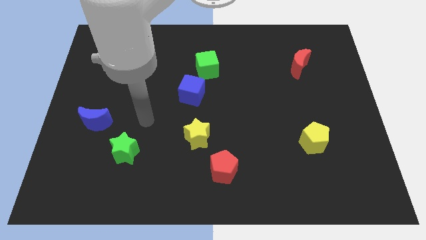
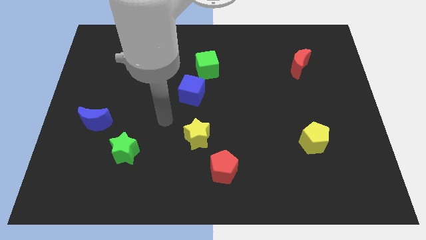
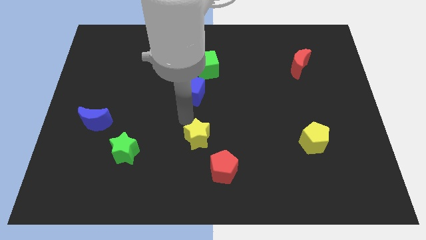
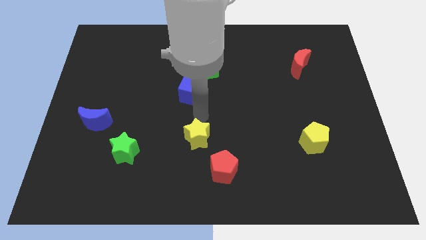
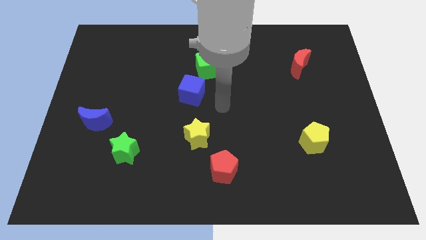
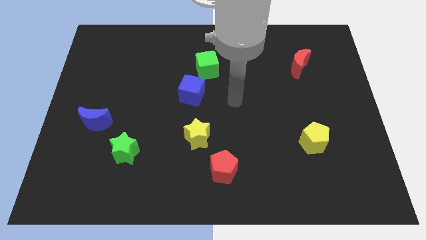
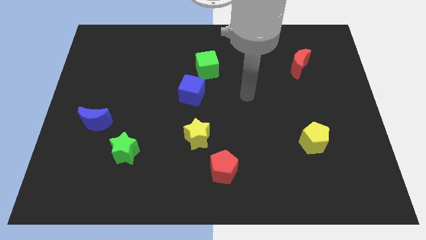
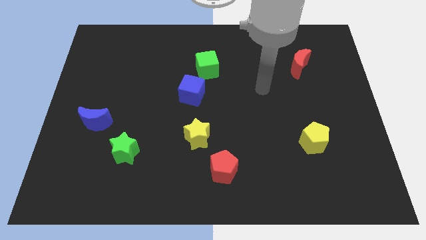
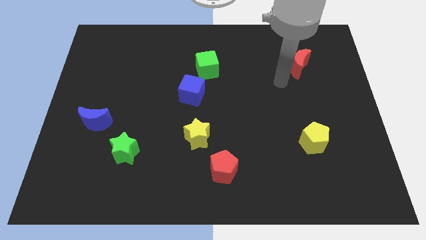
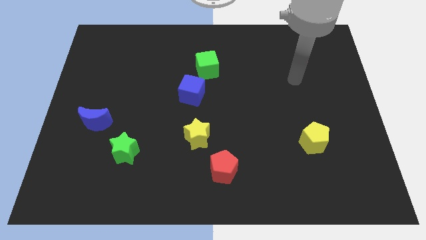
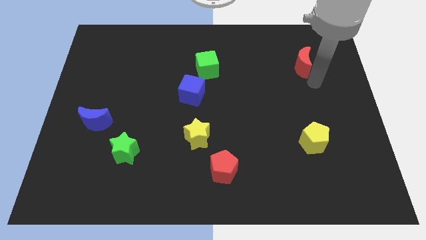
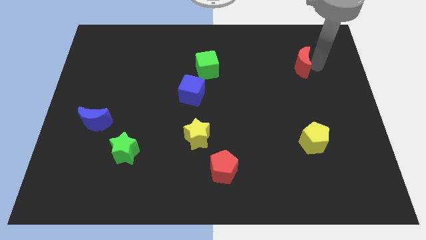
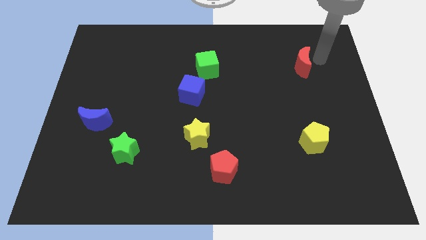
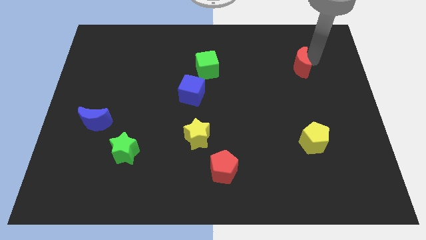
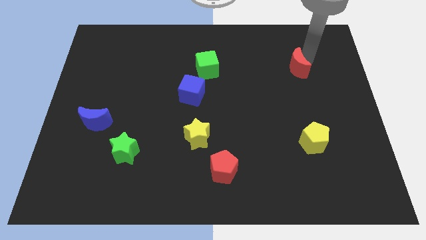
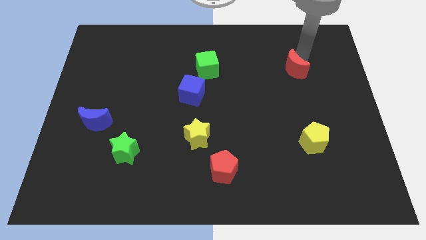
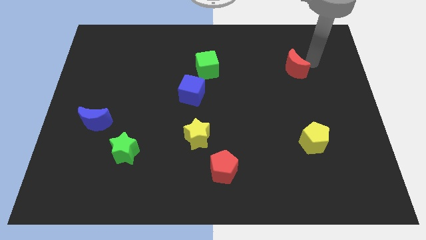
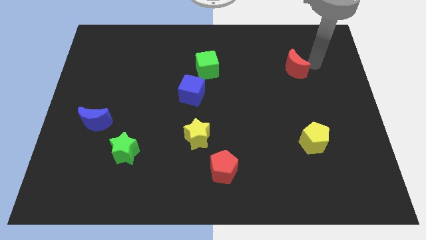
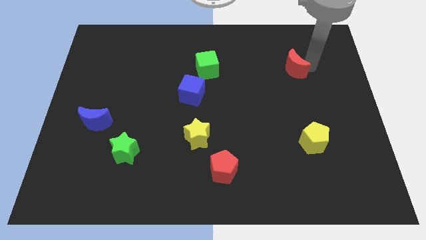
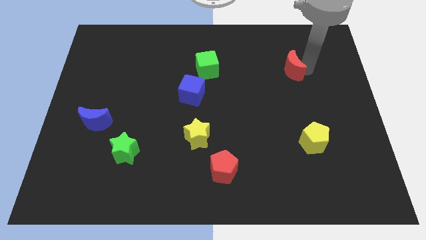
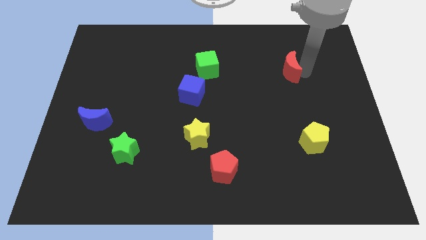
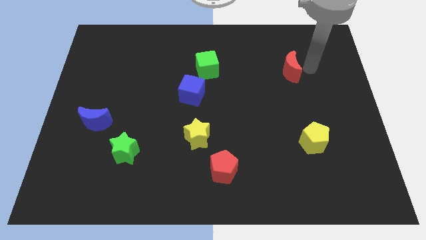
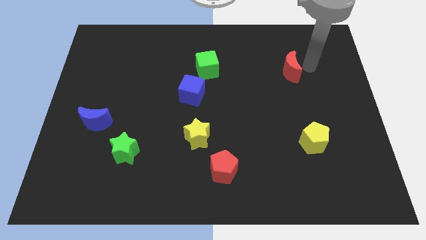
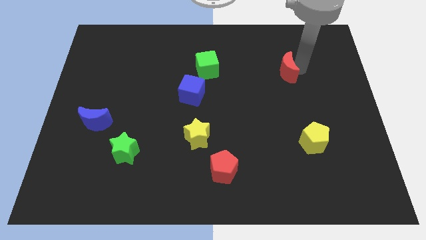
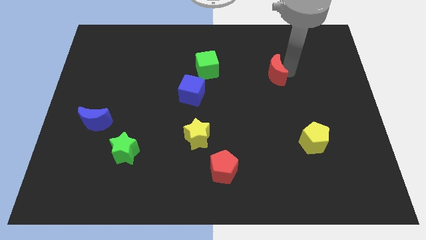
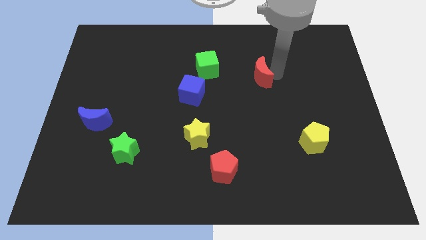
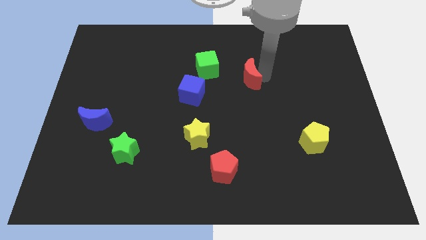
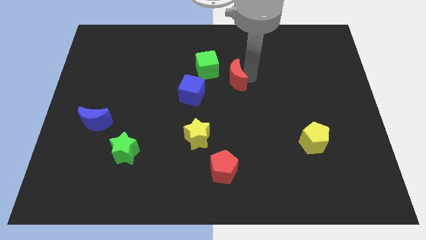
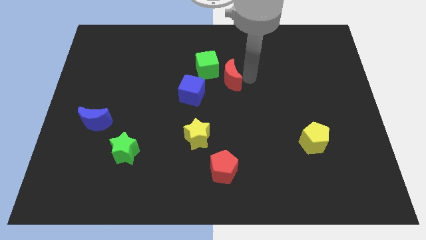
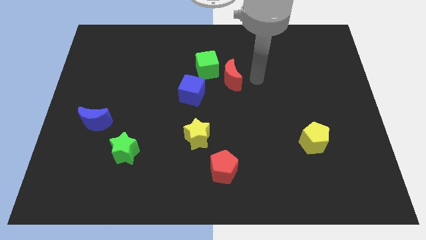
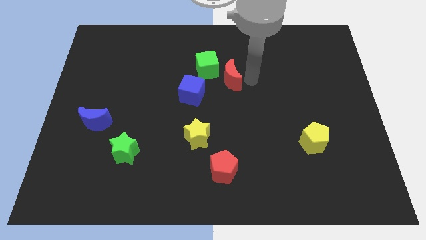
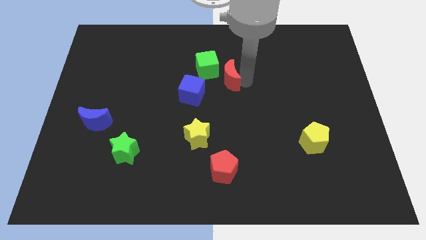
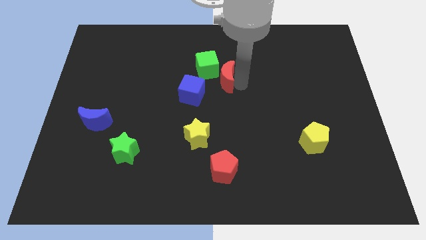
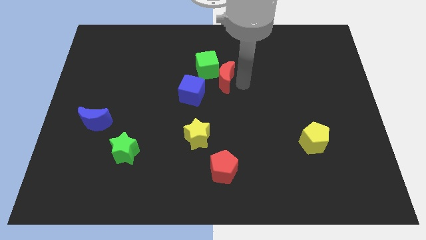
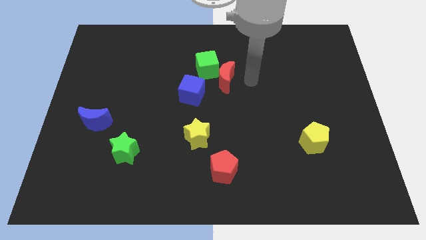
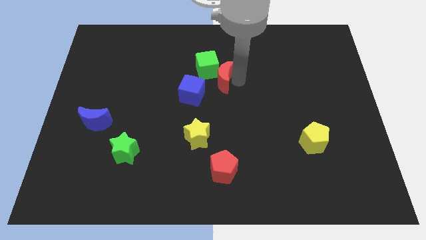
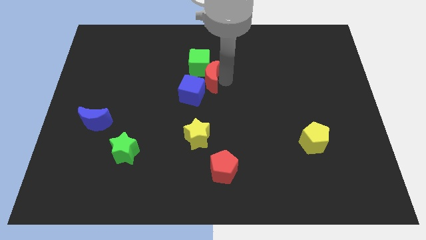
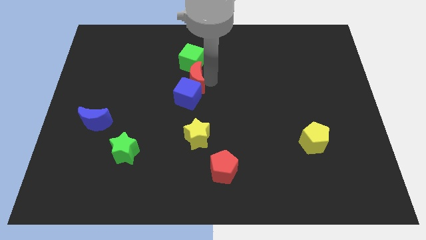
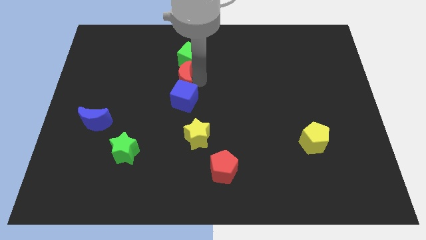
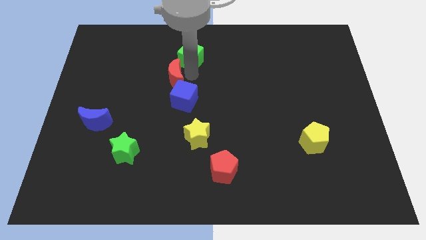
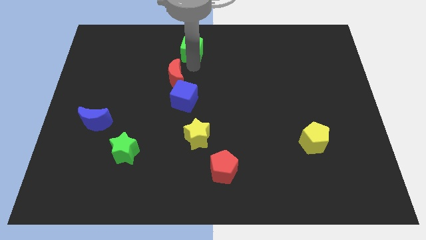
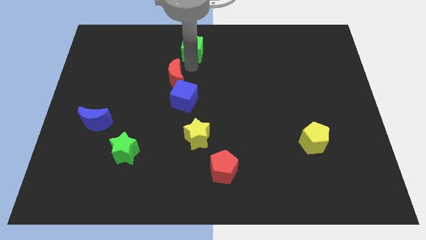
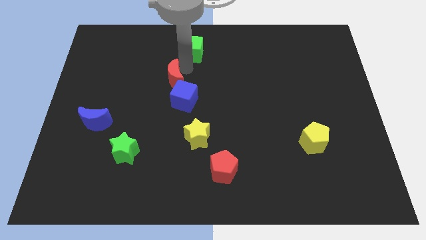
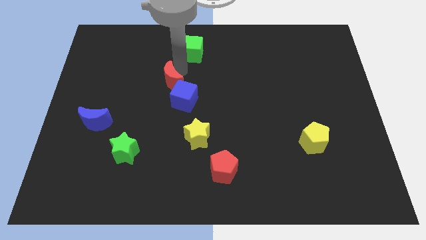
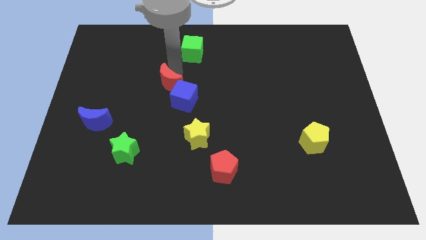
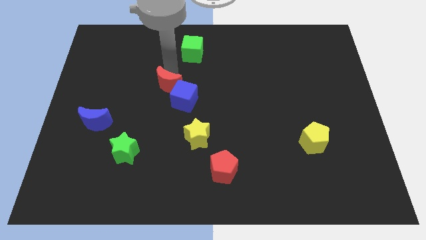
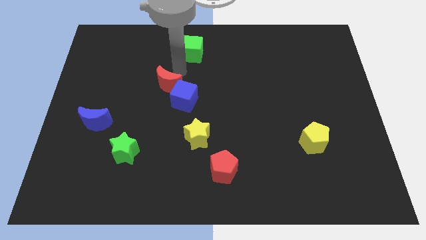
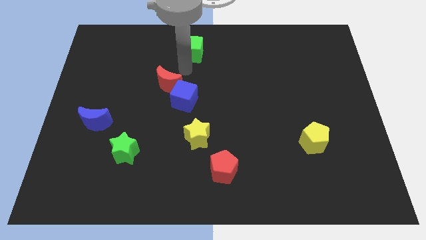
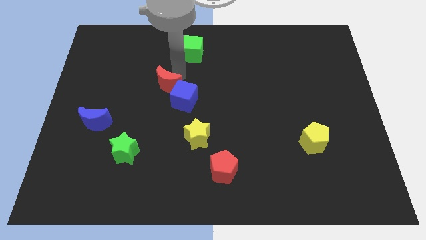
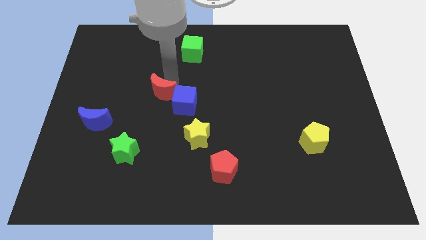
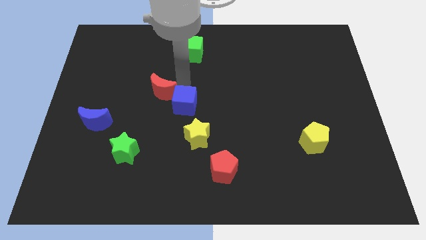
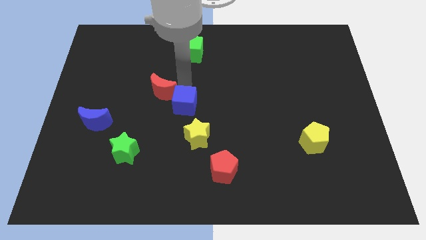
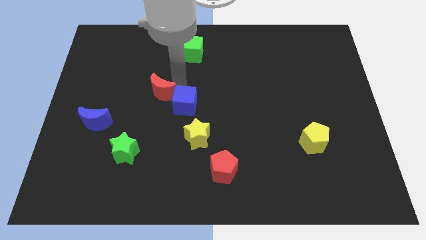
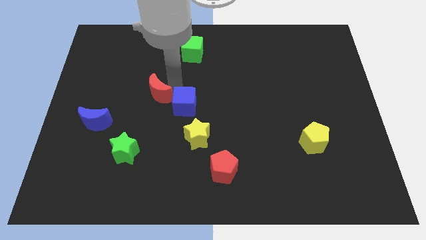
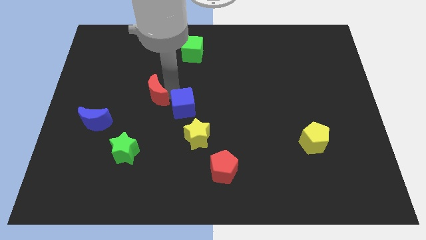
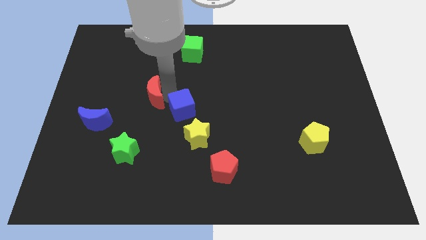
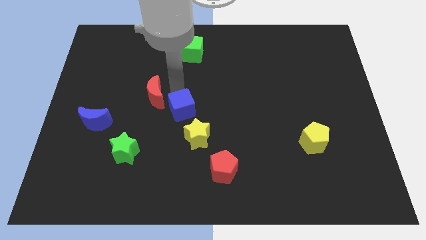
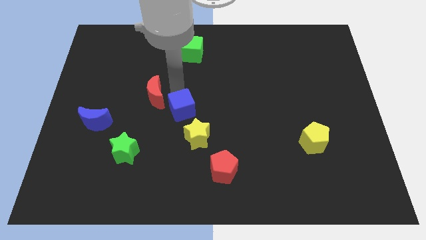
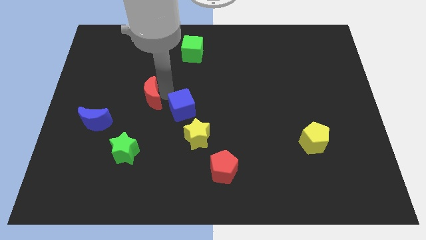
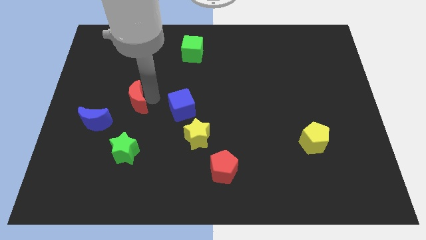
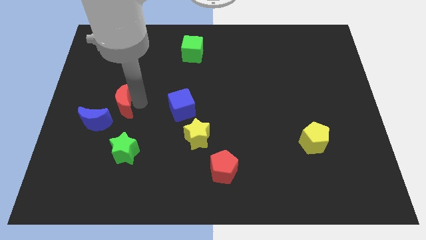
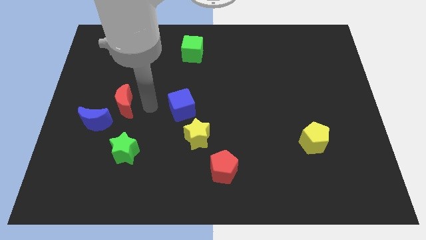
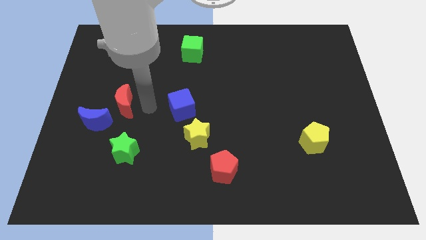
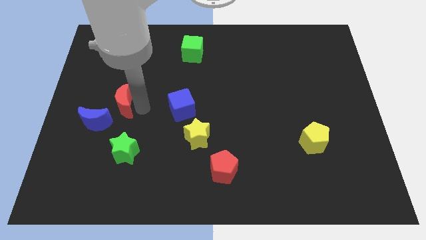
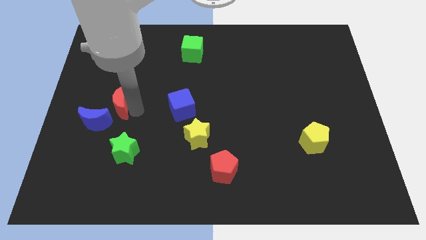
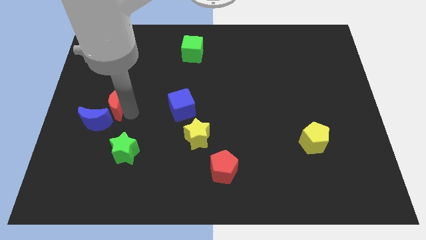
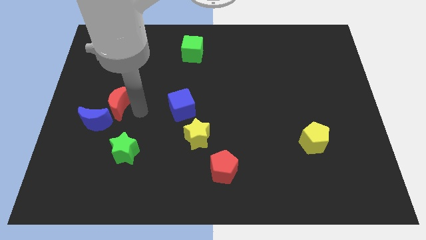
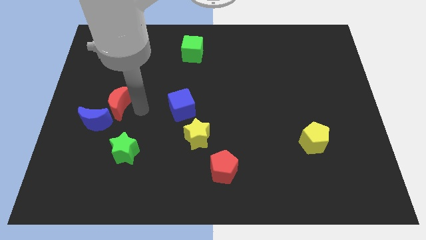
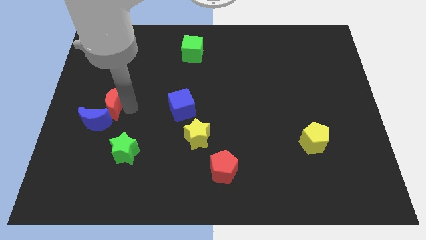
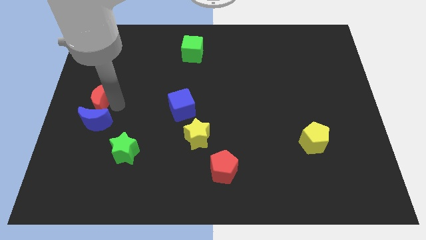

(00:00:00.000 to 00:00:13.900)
slide the red moon to the center left
